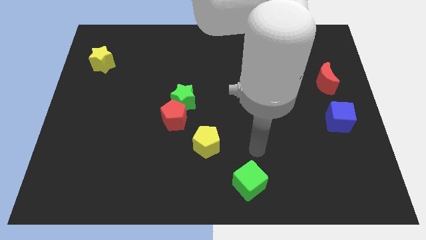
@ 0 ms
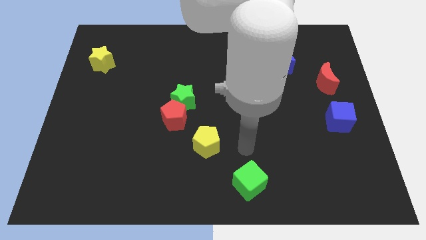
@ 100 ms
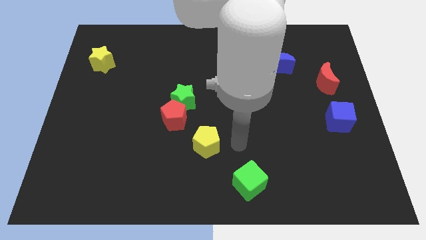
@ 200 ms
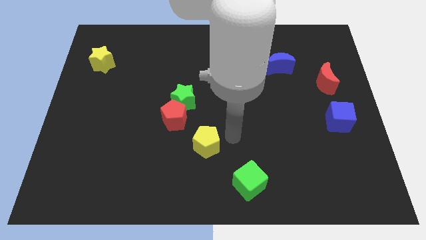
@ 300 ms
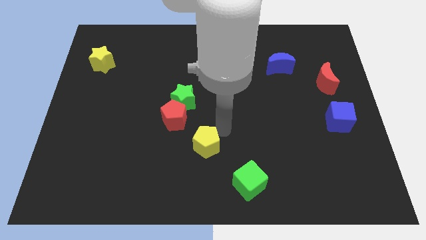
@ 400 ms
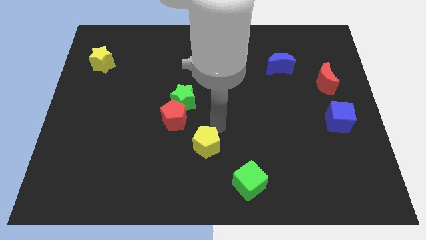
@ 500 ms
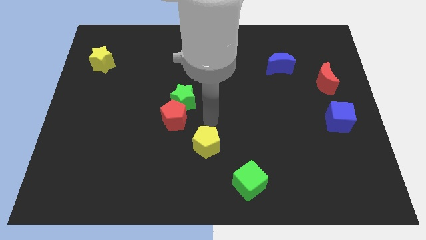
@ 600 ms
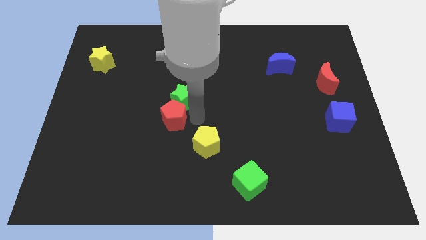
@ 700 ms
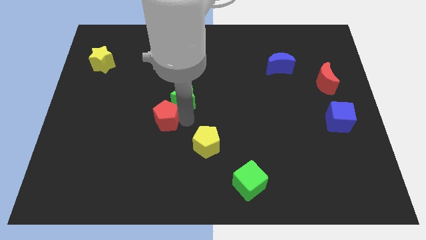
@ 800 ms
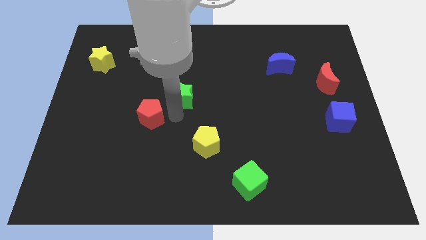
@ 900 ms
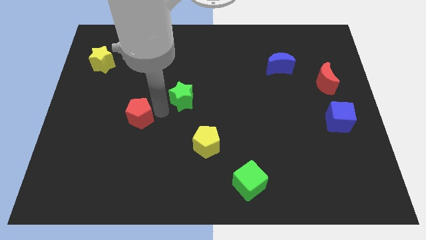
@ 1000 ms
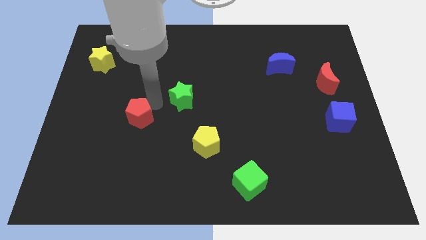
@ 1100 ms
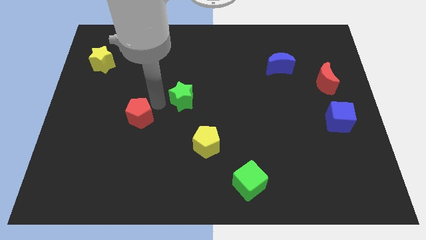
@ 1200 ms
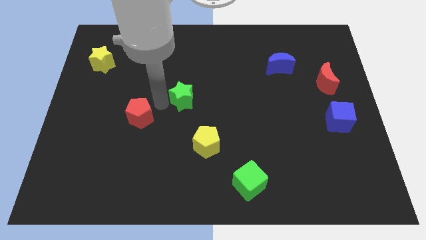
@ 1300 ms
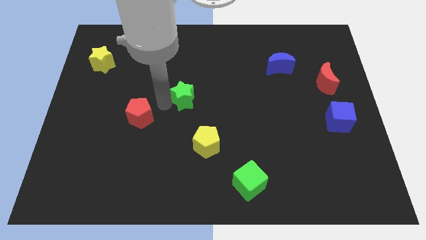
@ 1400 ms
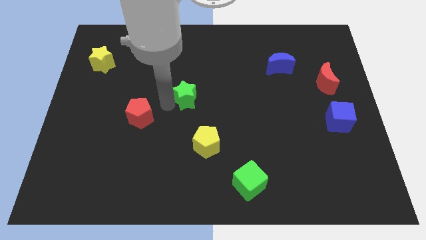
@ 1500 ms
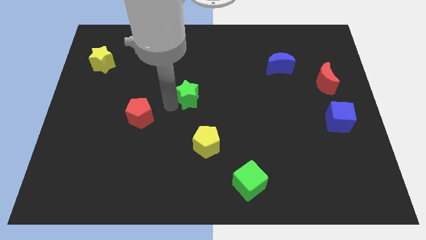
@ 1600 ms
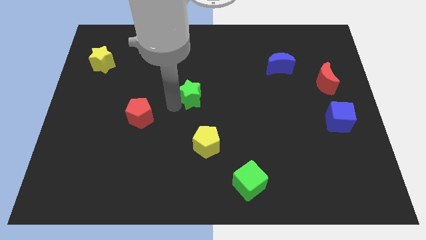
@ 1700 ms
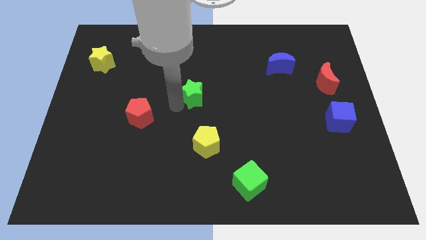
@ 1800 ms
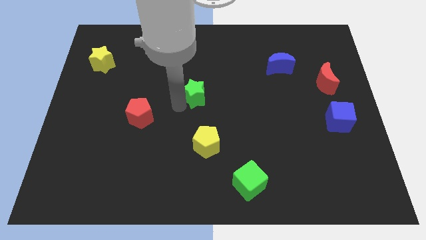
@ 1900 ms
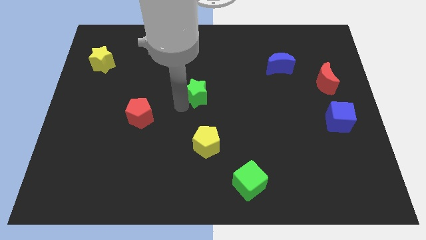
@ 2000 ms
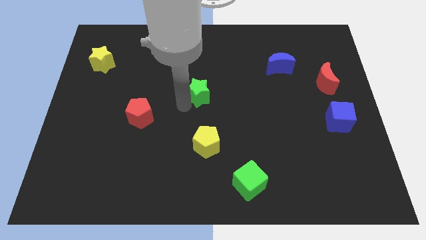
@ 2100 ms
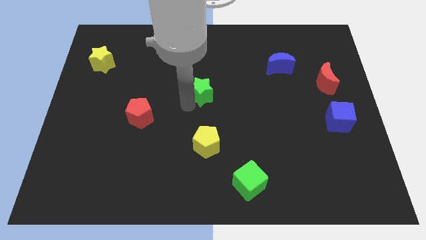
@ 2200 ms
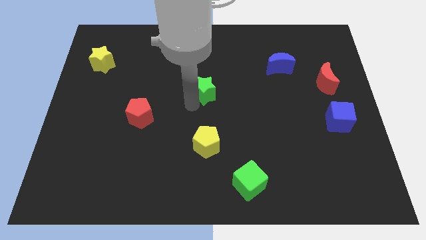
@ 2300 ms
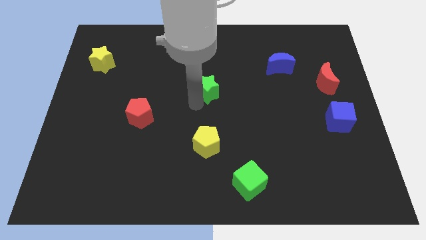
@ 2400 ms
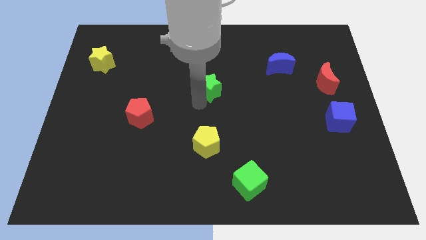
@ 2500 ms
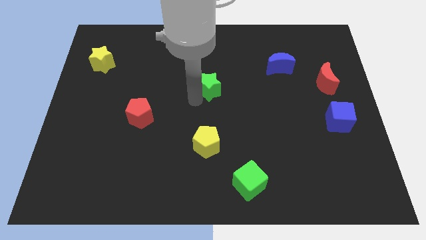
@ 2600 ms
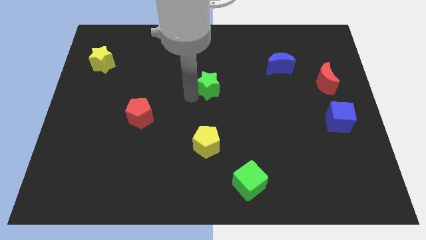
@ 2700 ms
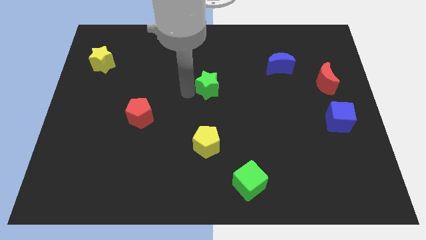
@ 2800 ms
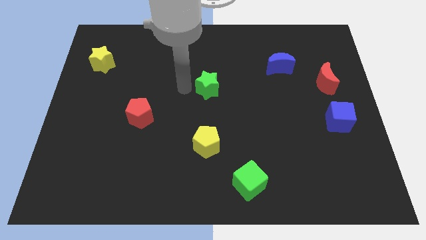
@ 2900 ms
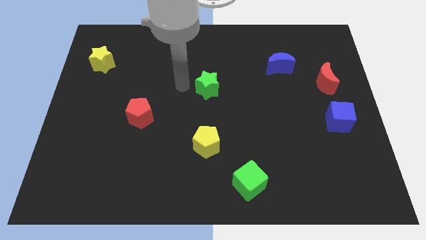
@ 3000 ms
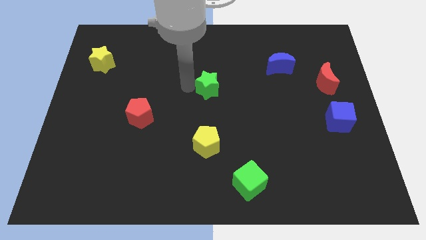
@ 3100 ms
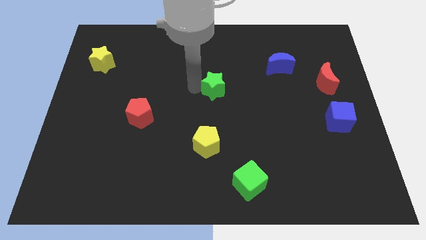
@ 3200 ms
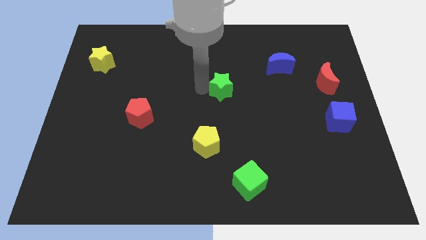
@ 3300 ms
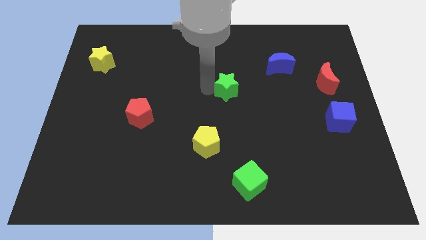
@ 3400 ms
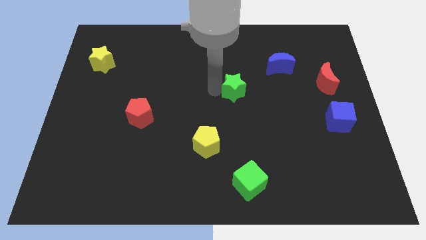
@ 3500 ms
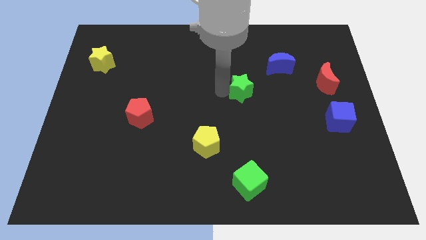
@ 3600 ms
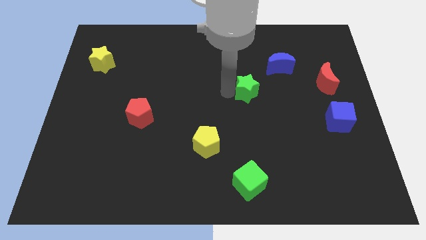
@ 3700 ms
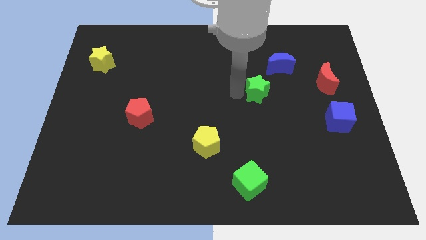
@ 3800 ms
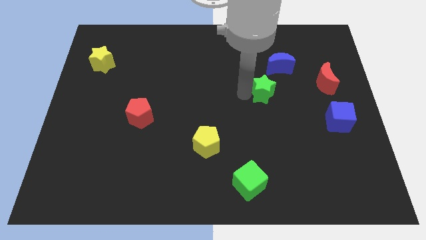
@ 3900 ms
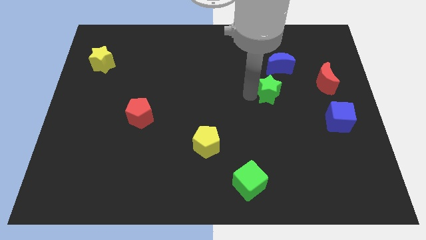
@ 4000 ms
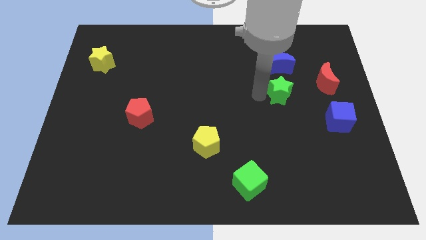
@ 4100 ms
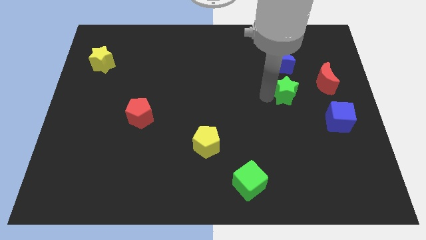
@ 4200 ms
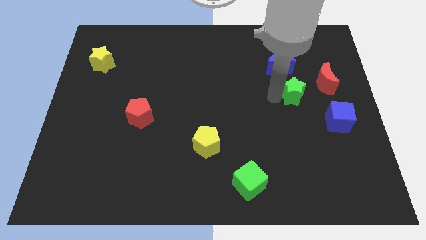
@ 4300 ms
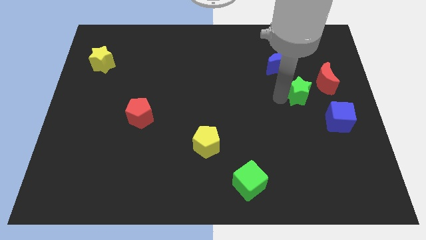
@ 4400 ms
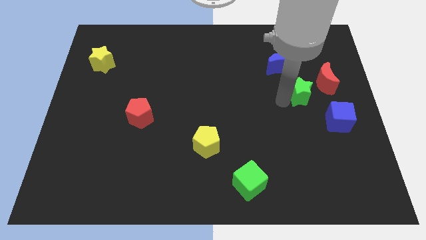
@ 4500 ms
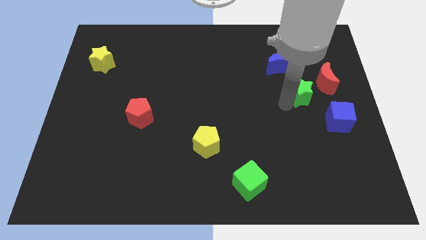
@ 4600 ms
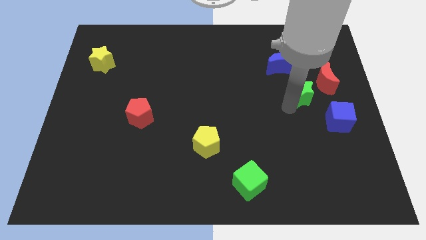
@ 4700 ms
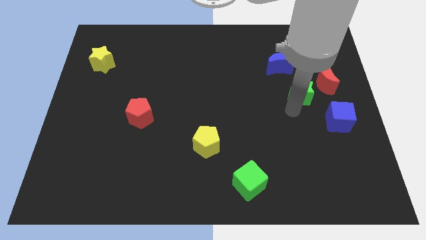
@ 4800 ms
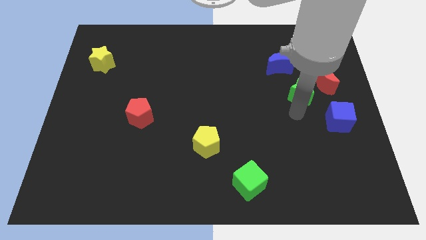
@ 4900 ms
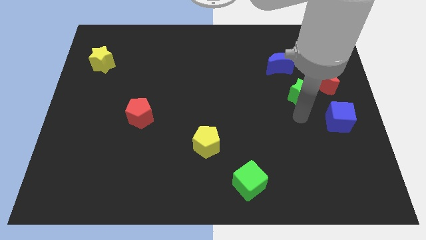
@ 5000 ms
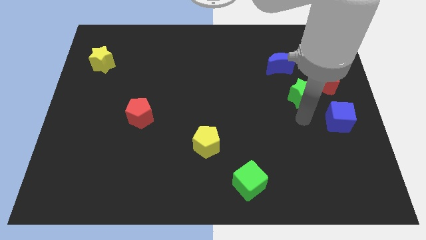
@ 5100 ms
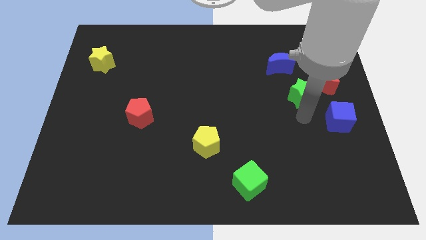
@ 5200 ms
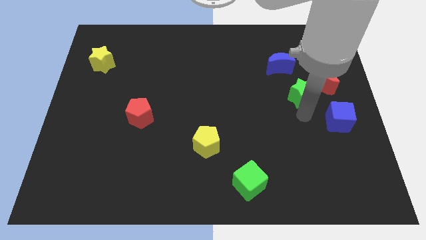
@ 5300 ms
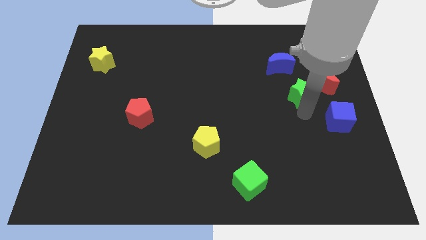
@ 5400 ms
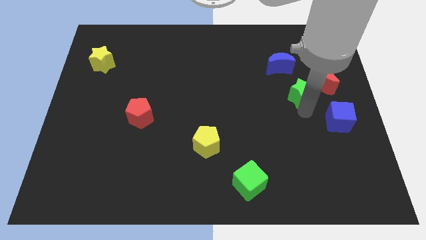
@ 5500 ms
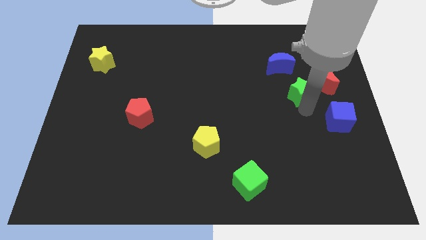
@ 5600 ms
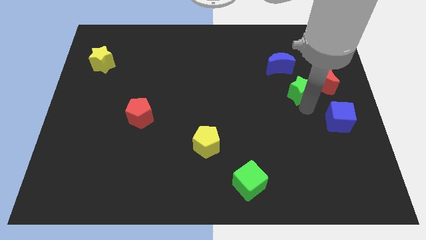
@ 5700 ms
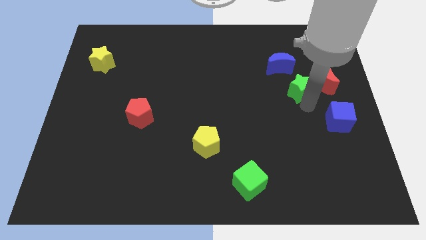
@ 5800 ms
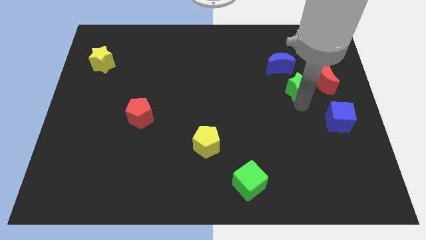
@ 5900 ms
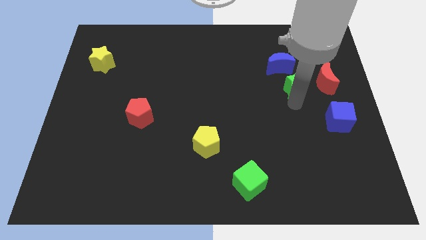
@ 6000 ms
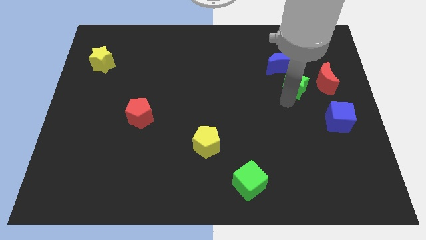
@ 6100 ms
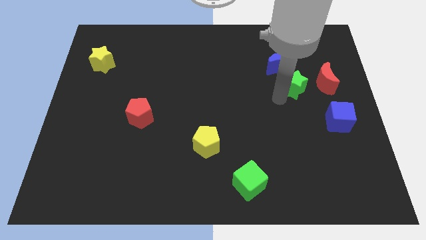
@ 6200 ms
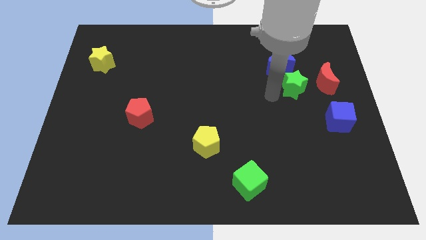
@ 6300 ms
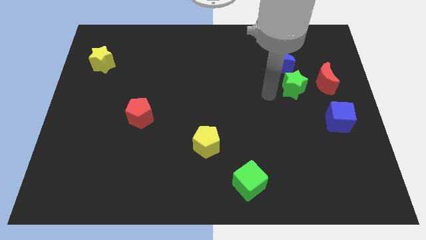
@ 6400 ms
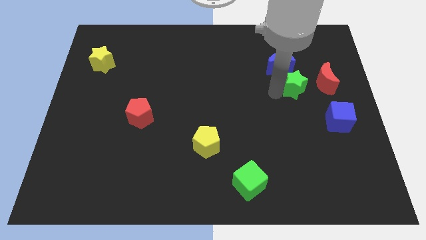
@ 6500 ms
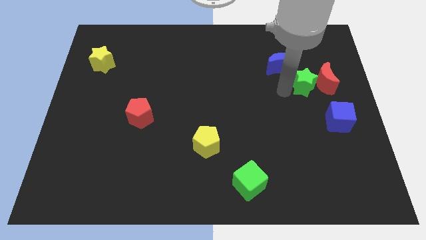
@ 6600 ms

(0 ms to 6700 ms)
move the green star close to the red moon
